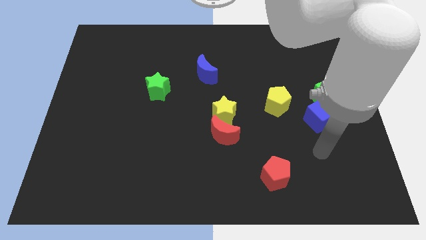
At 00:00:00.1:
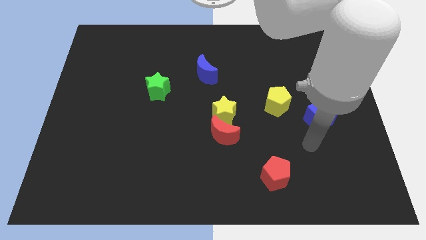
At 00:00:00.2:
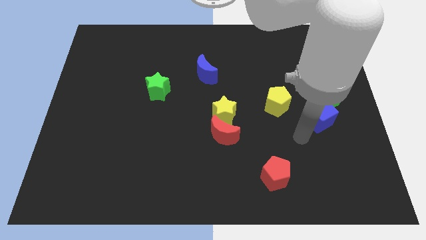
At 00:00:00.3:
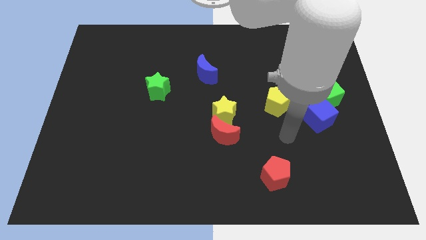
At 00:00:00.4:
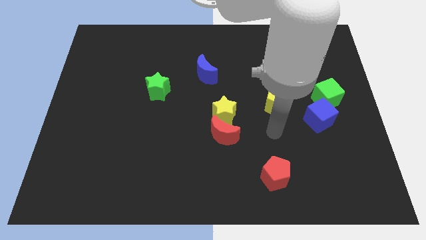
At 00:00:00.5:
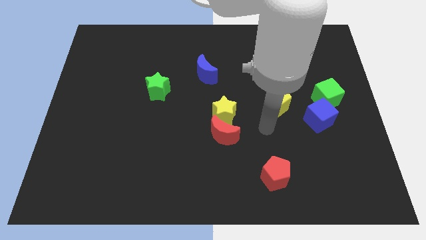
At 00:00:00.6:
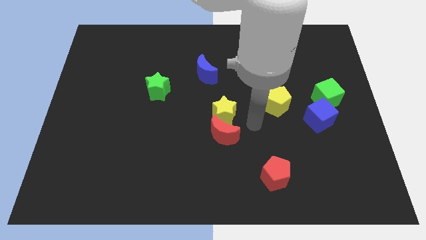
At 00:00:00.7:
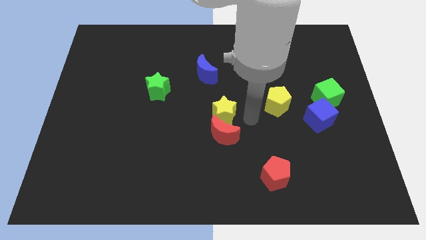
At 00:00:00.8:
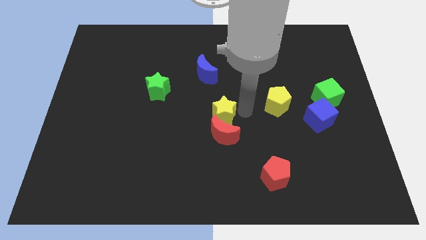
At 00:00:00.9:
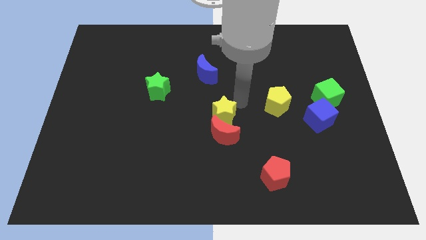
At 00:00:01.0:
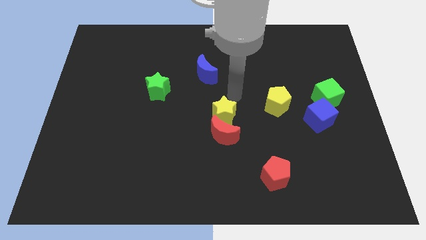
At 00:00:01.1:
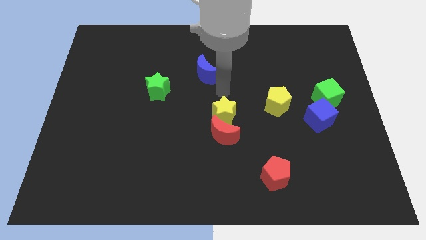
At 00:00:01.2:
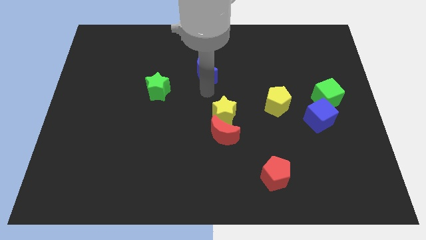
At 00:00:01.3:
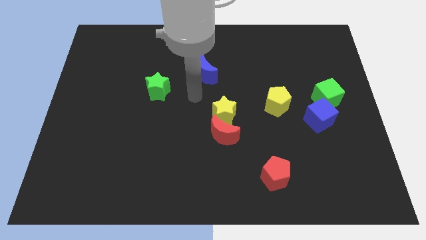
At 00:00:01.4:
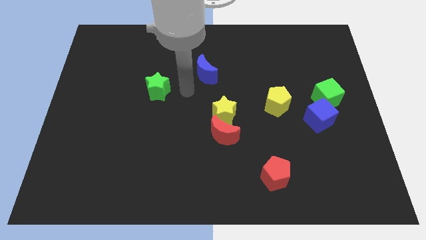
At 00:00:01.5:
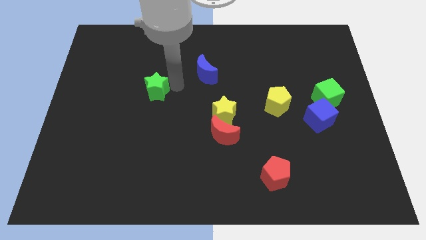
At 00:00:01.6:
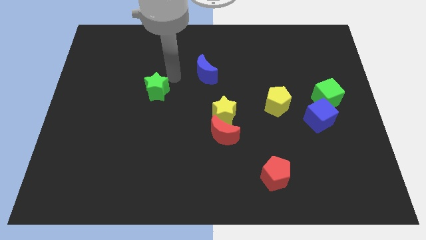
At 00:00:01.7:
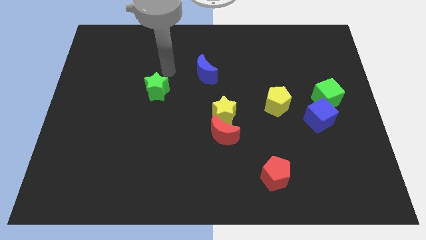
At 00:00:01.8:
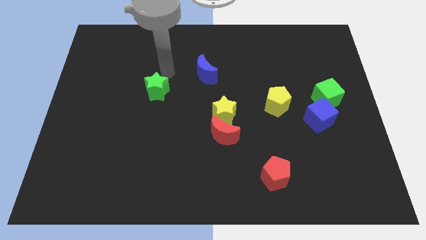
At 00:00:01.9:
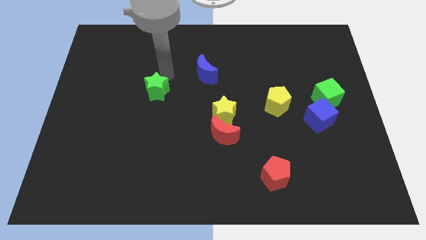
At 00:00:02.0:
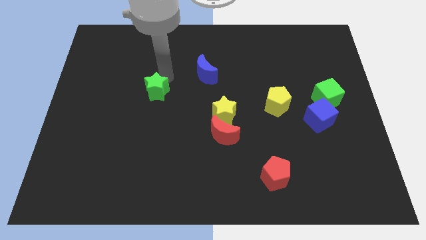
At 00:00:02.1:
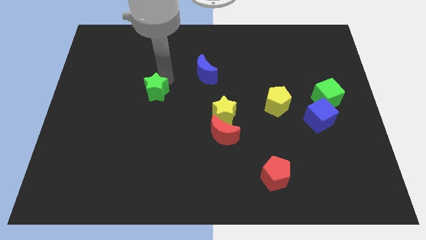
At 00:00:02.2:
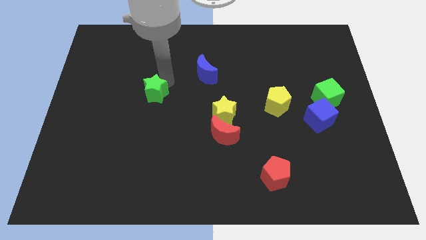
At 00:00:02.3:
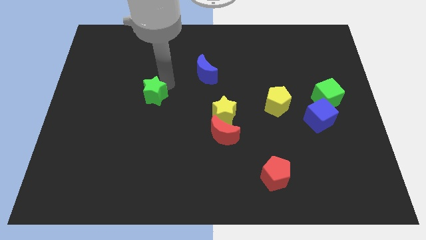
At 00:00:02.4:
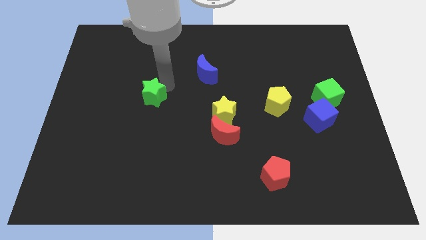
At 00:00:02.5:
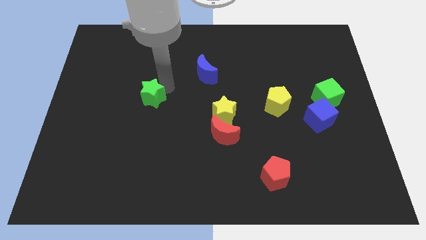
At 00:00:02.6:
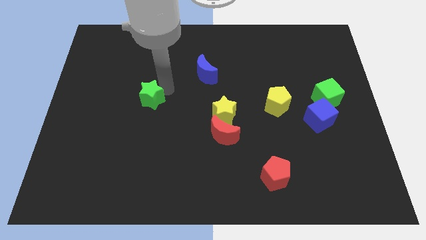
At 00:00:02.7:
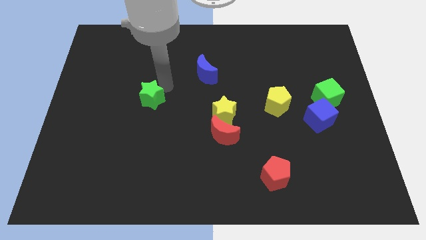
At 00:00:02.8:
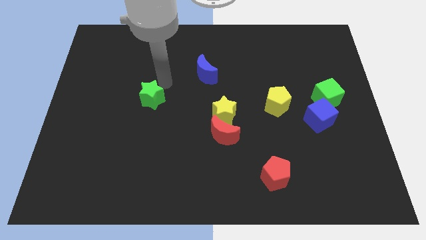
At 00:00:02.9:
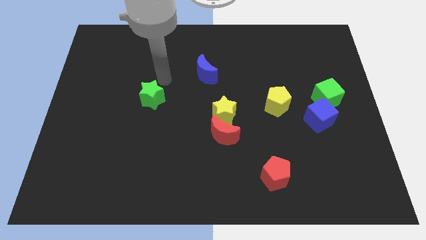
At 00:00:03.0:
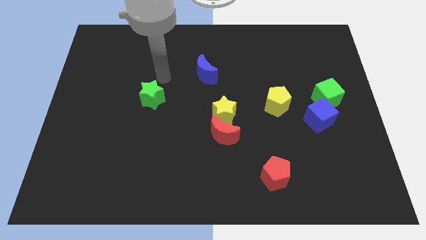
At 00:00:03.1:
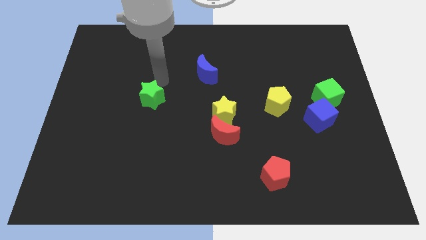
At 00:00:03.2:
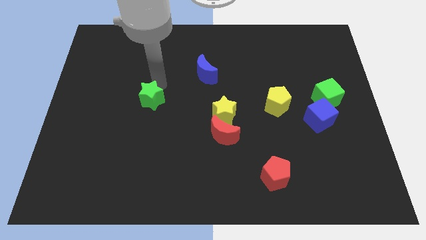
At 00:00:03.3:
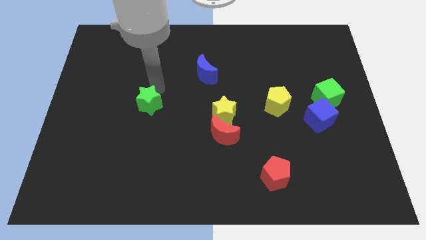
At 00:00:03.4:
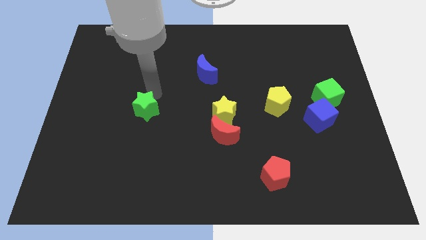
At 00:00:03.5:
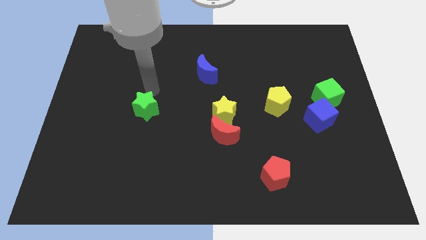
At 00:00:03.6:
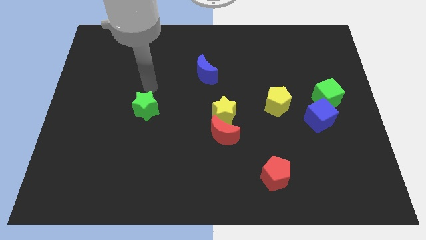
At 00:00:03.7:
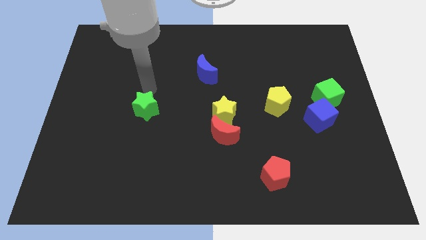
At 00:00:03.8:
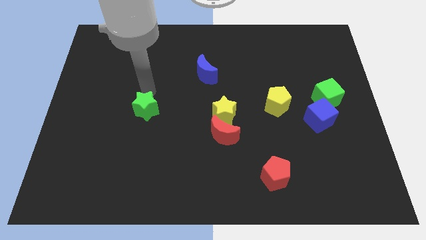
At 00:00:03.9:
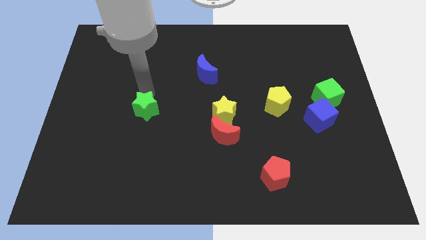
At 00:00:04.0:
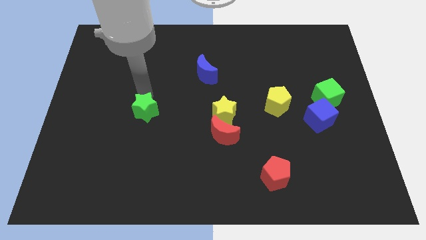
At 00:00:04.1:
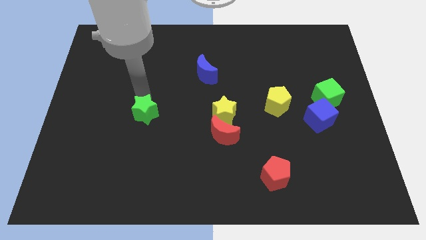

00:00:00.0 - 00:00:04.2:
slide the green star downwards a little

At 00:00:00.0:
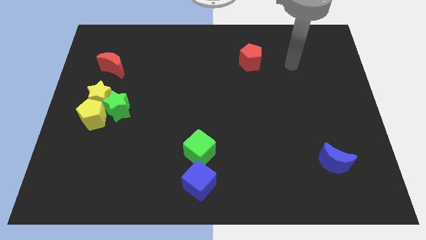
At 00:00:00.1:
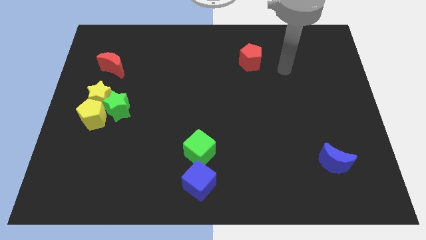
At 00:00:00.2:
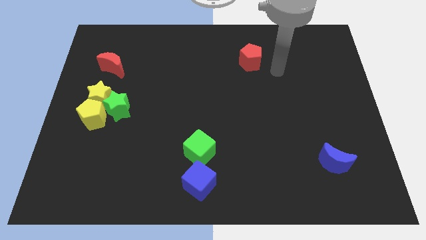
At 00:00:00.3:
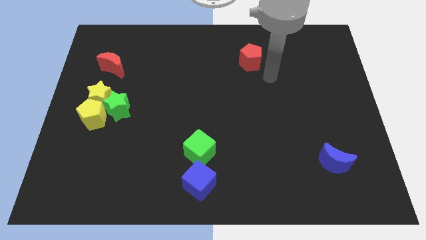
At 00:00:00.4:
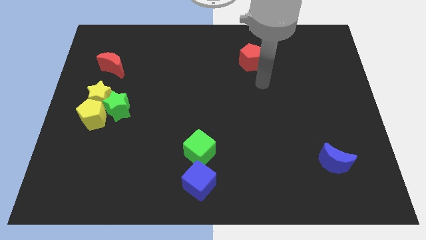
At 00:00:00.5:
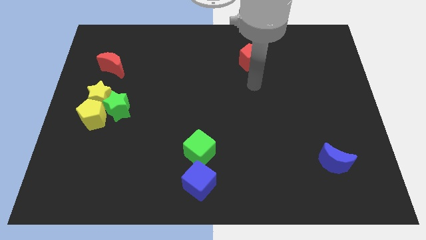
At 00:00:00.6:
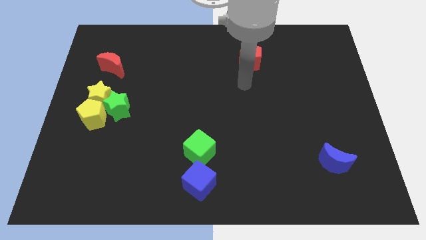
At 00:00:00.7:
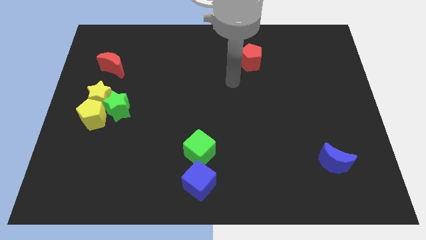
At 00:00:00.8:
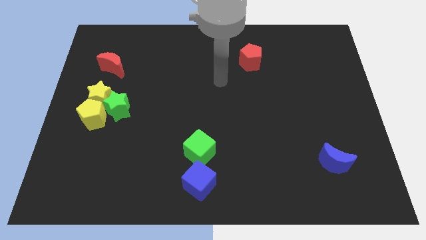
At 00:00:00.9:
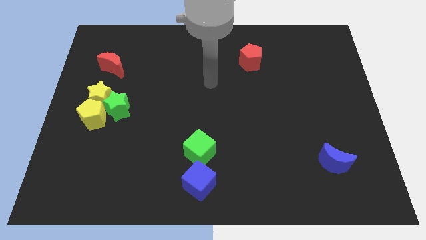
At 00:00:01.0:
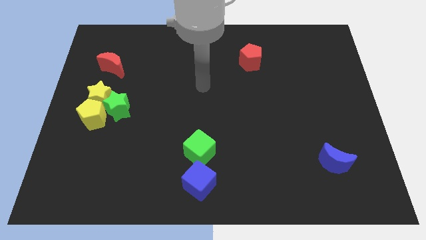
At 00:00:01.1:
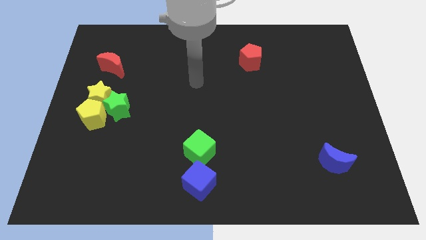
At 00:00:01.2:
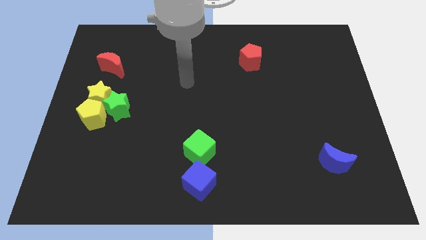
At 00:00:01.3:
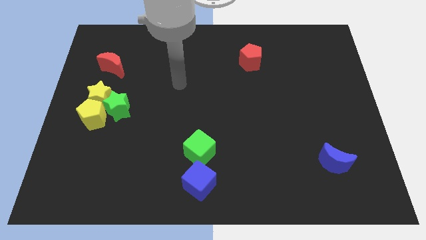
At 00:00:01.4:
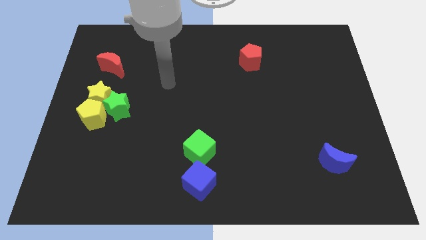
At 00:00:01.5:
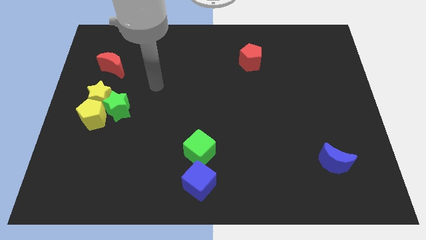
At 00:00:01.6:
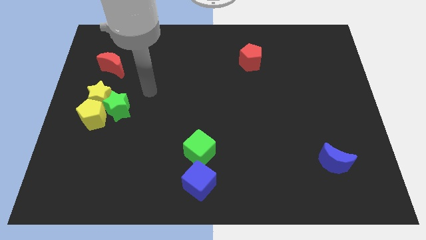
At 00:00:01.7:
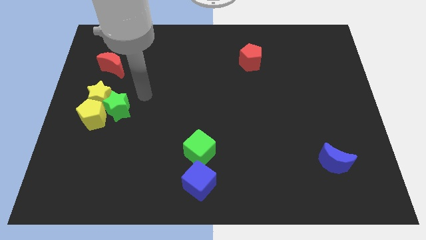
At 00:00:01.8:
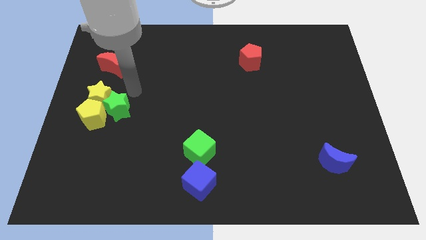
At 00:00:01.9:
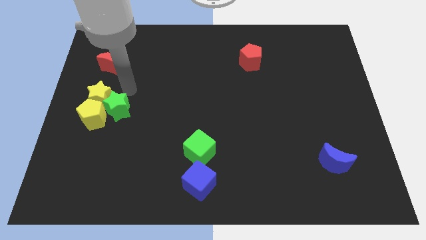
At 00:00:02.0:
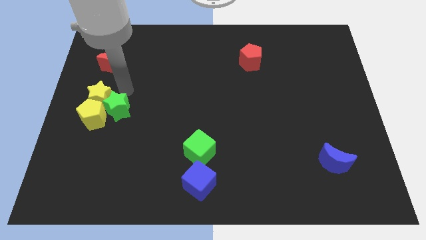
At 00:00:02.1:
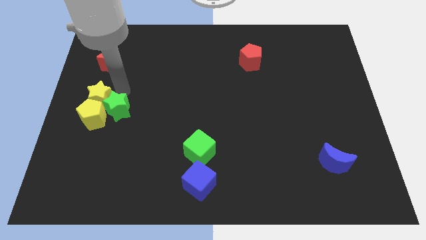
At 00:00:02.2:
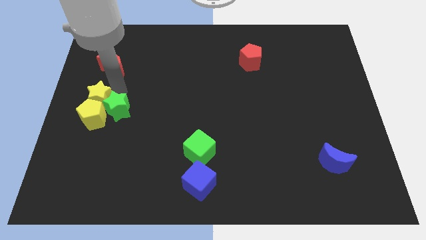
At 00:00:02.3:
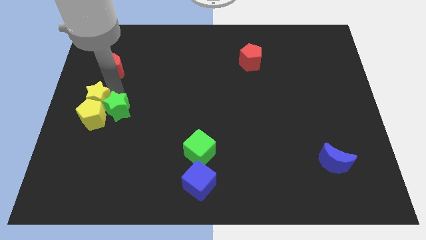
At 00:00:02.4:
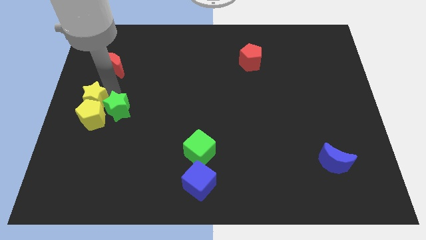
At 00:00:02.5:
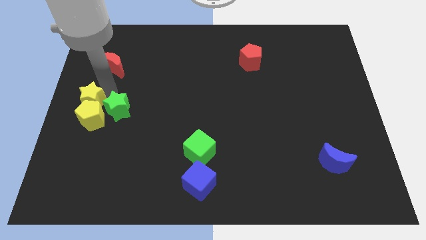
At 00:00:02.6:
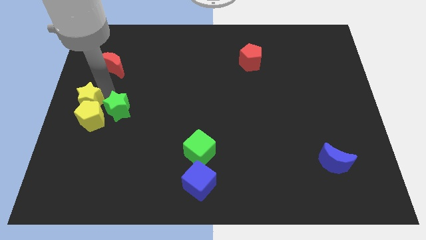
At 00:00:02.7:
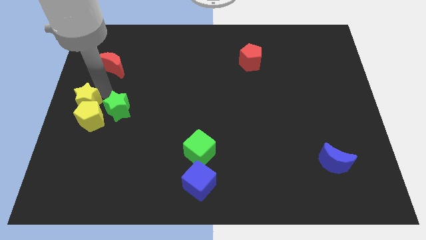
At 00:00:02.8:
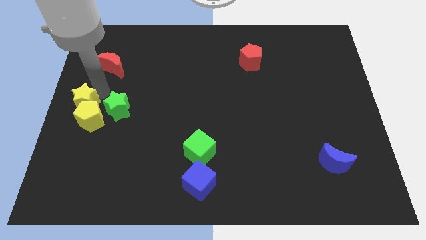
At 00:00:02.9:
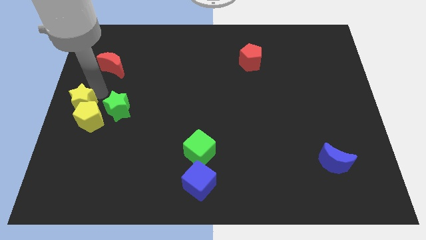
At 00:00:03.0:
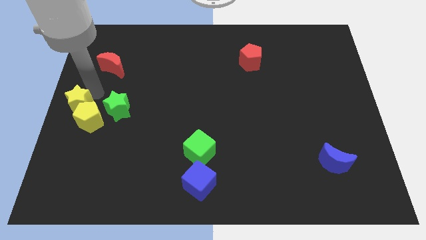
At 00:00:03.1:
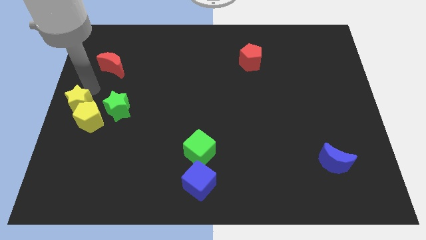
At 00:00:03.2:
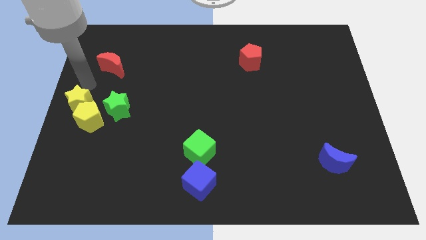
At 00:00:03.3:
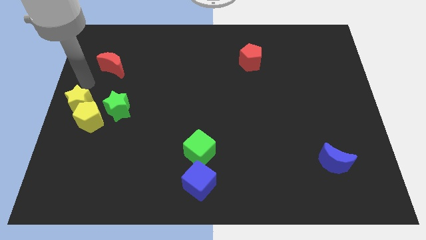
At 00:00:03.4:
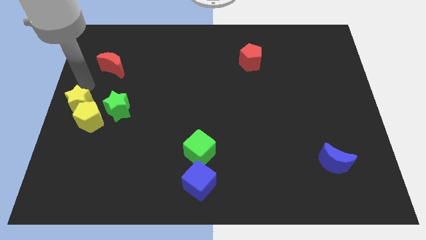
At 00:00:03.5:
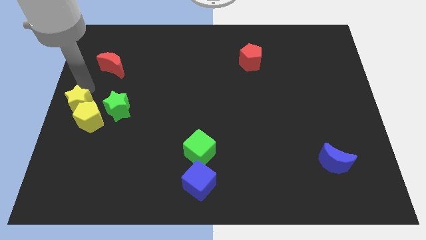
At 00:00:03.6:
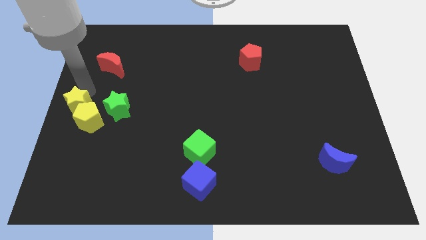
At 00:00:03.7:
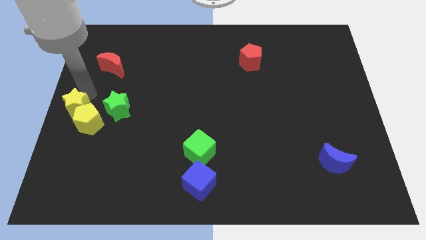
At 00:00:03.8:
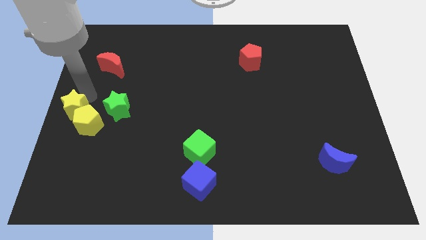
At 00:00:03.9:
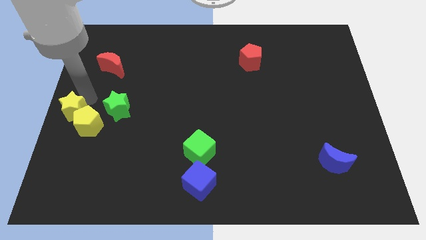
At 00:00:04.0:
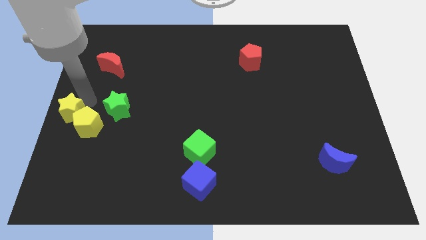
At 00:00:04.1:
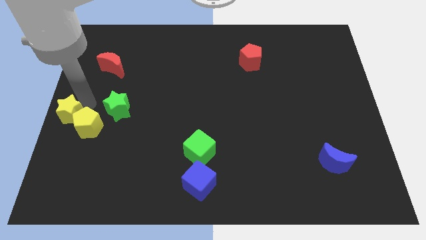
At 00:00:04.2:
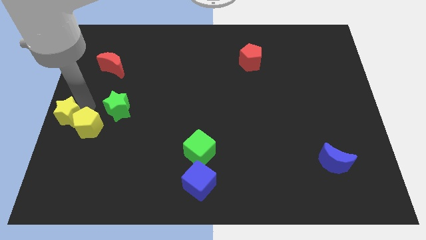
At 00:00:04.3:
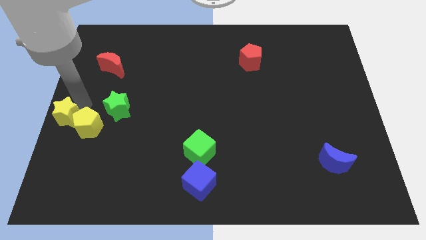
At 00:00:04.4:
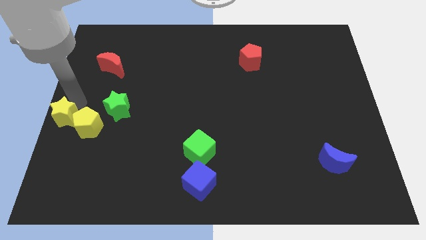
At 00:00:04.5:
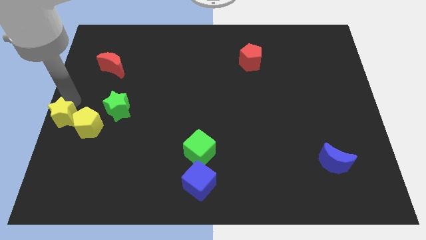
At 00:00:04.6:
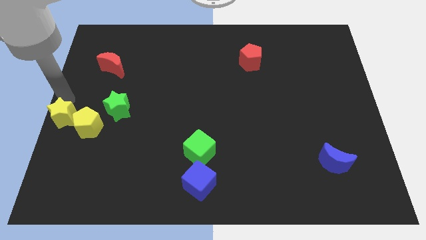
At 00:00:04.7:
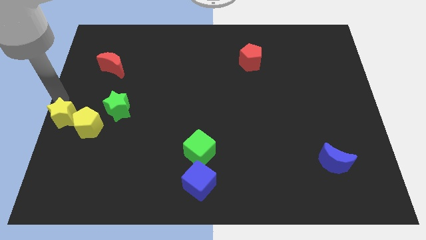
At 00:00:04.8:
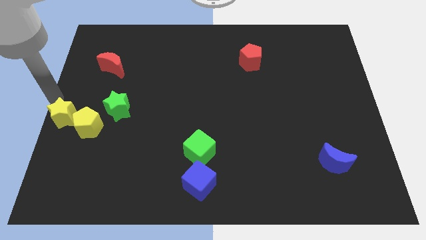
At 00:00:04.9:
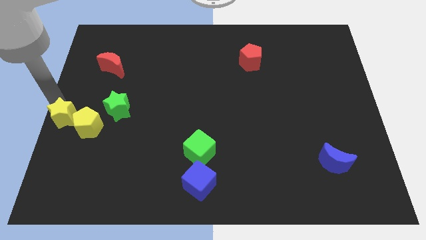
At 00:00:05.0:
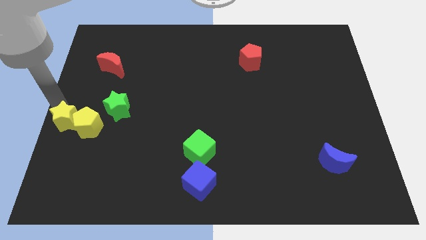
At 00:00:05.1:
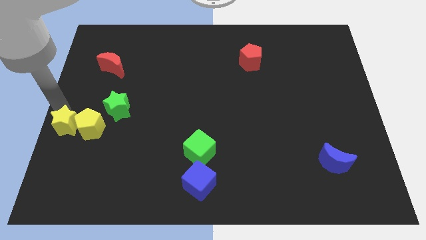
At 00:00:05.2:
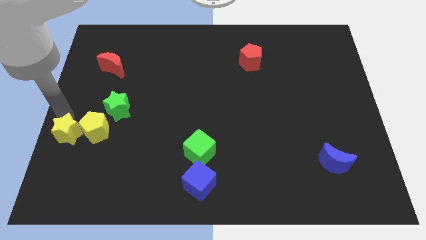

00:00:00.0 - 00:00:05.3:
move the yellow star a bit downwards
